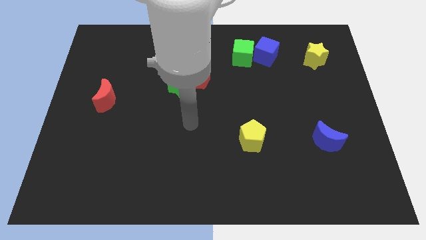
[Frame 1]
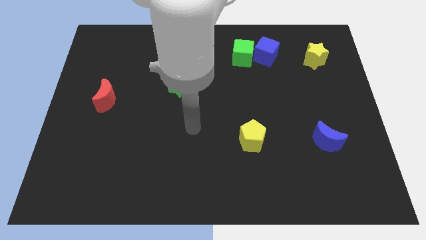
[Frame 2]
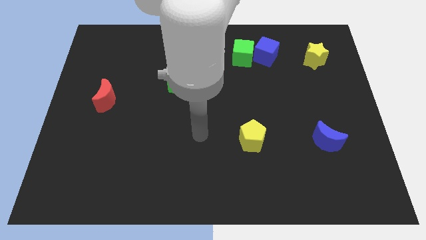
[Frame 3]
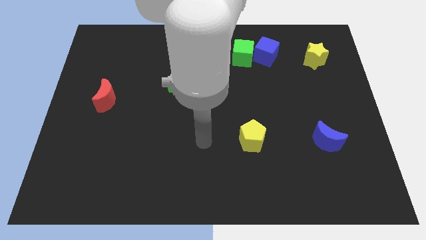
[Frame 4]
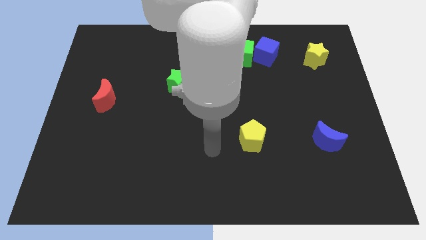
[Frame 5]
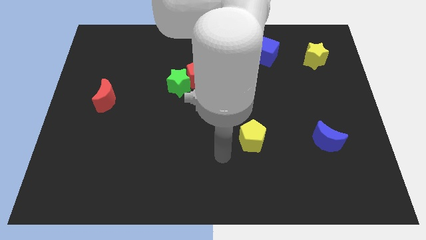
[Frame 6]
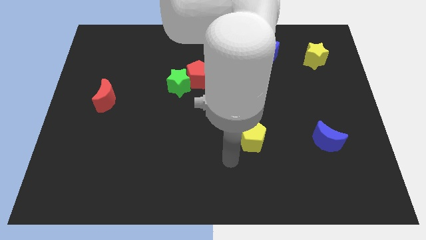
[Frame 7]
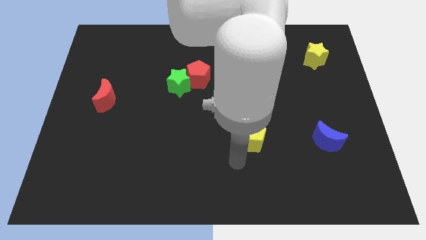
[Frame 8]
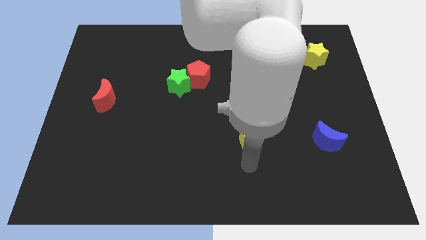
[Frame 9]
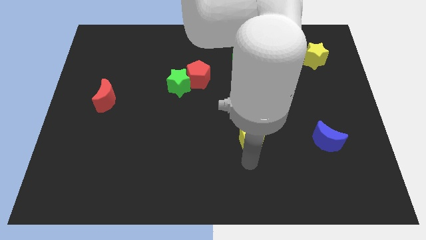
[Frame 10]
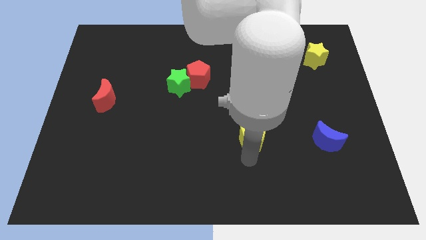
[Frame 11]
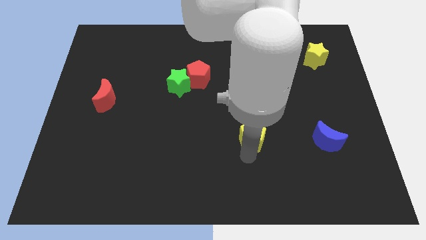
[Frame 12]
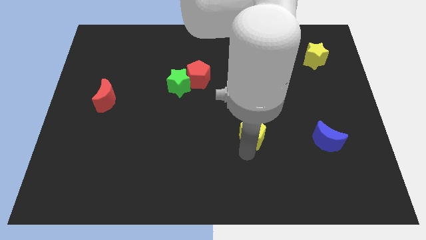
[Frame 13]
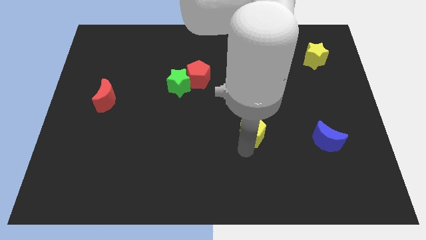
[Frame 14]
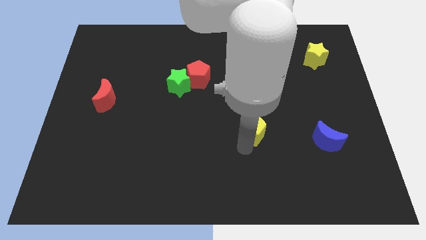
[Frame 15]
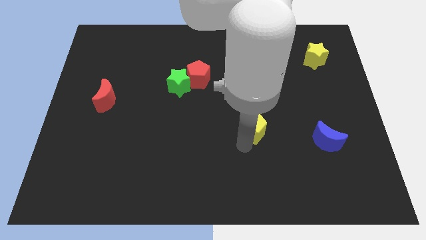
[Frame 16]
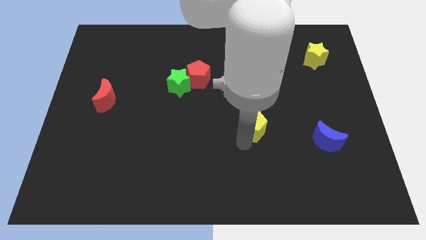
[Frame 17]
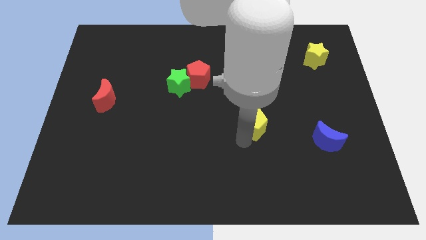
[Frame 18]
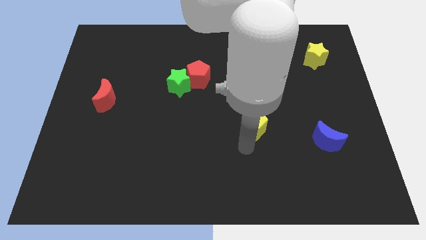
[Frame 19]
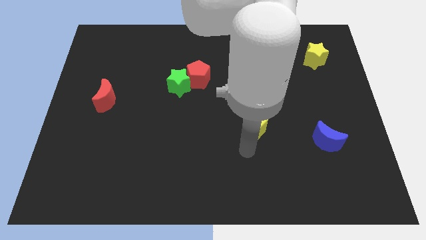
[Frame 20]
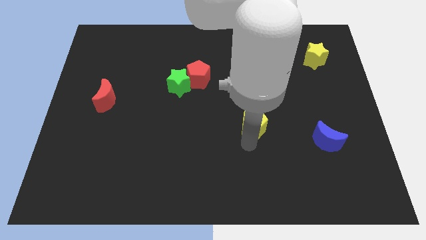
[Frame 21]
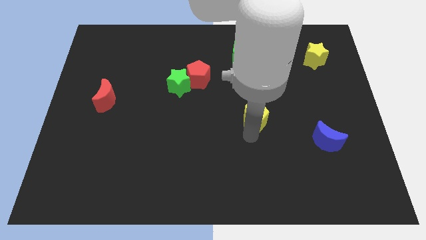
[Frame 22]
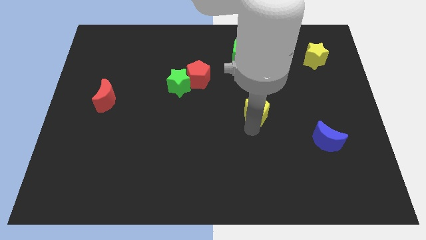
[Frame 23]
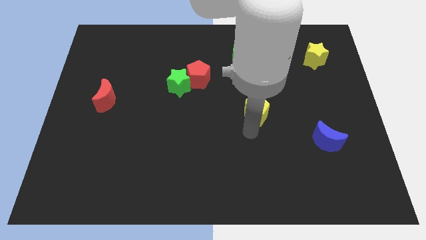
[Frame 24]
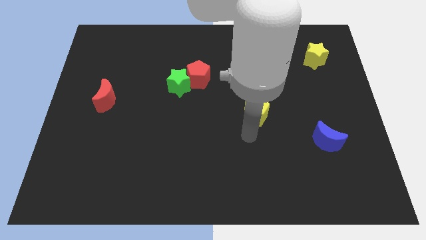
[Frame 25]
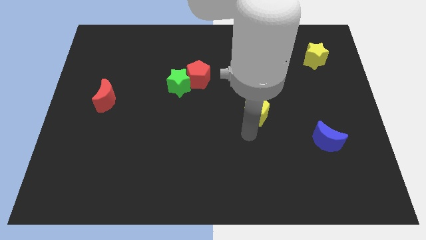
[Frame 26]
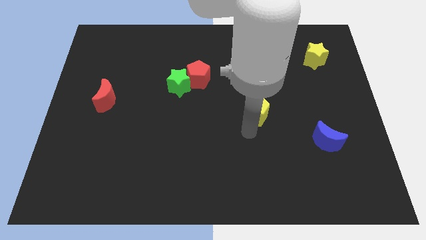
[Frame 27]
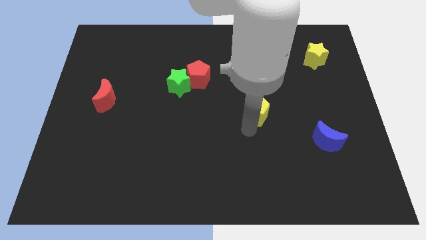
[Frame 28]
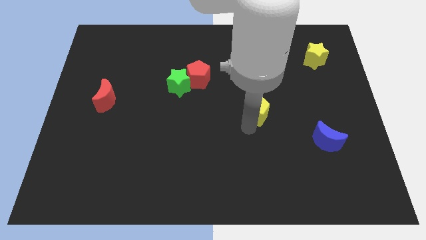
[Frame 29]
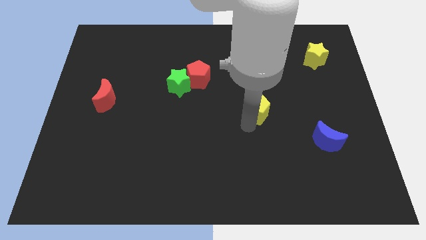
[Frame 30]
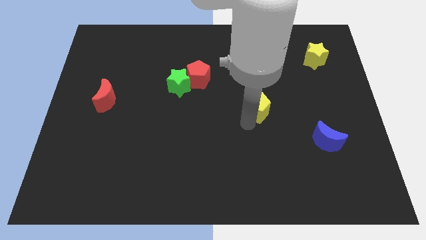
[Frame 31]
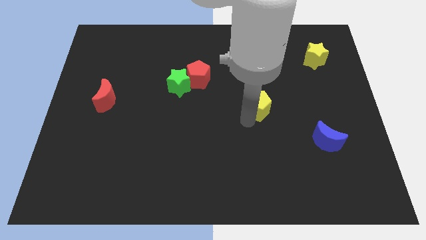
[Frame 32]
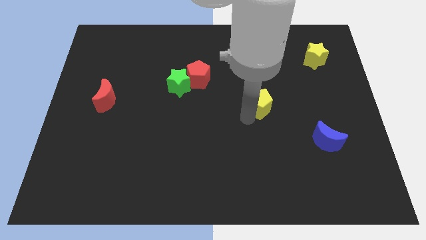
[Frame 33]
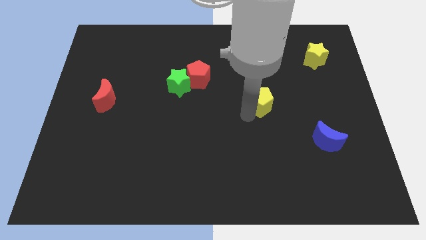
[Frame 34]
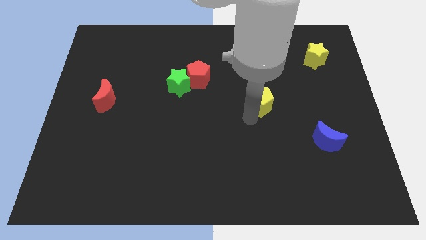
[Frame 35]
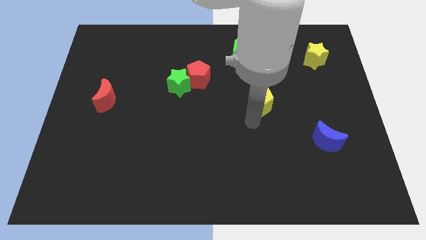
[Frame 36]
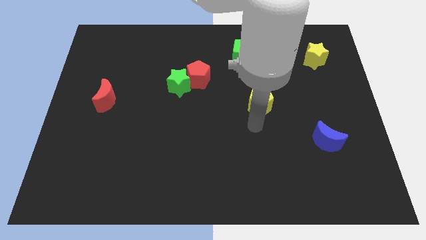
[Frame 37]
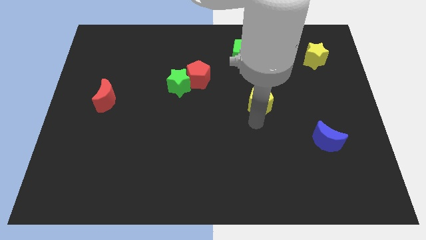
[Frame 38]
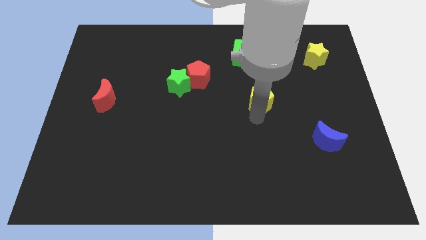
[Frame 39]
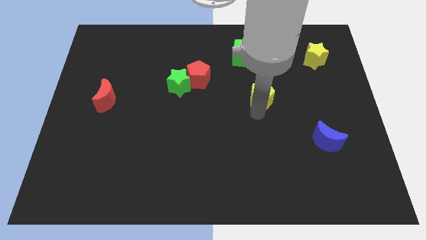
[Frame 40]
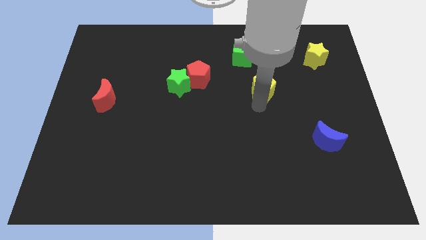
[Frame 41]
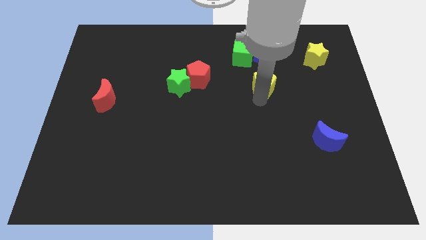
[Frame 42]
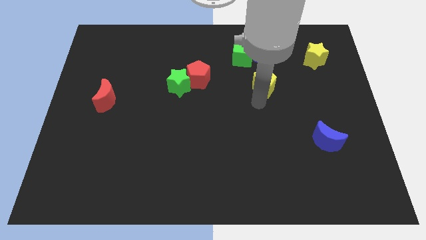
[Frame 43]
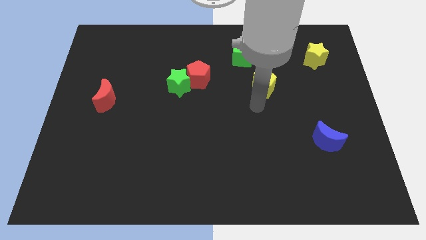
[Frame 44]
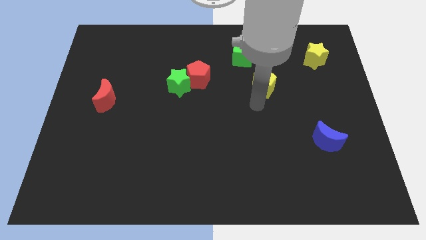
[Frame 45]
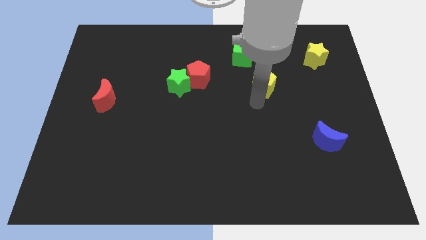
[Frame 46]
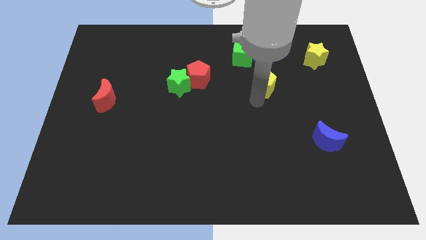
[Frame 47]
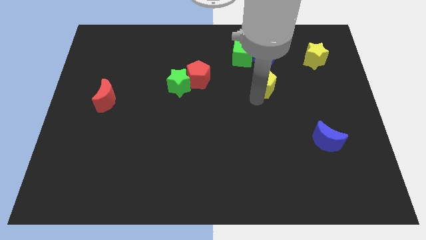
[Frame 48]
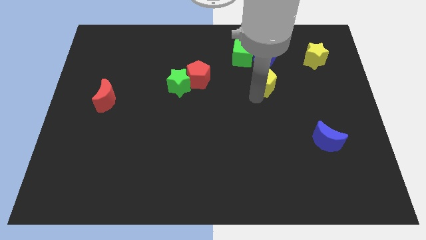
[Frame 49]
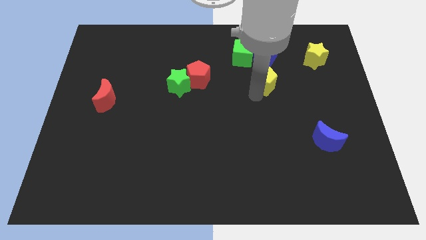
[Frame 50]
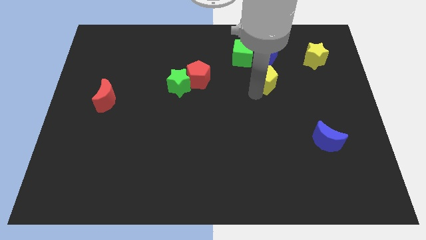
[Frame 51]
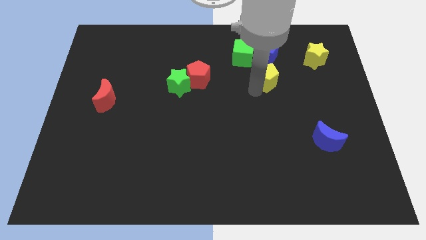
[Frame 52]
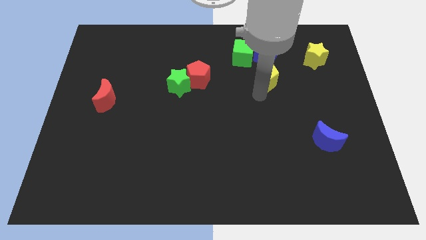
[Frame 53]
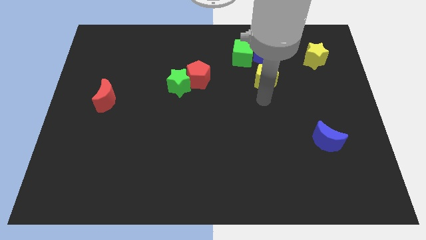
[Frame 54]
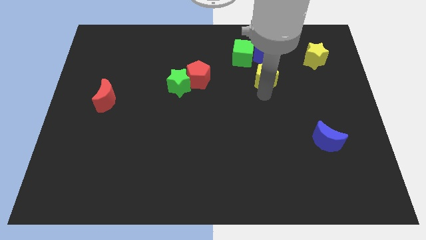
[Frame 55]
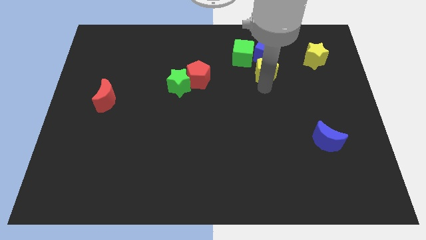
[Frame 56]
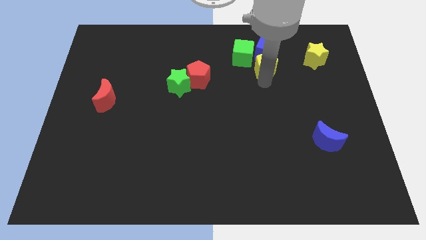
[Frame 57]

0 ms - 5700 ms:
move the yellow pentagon to the blue cube

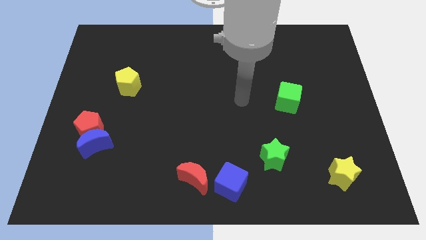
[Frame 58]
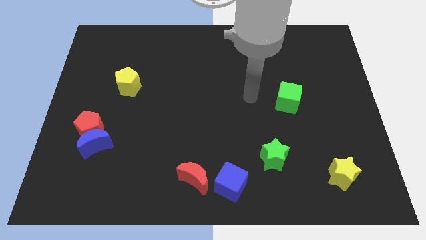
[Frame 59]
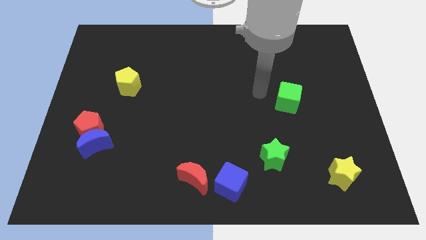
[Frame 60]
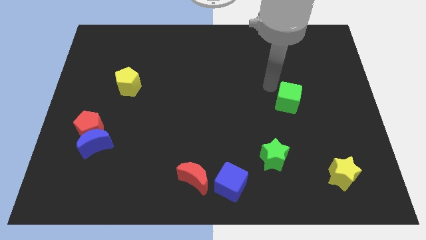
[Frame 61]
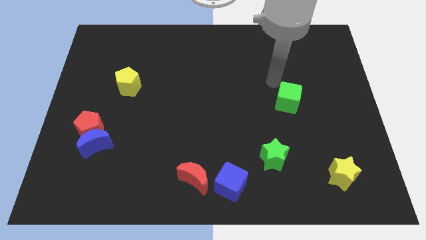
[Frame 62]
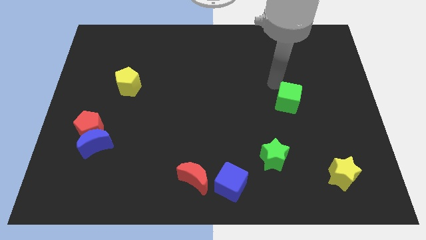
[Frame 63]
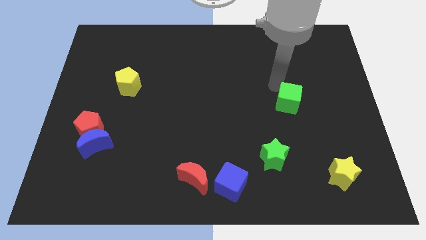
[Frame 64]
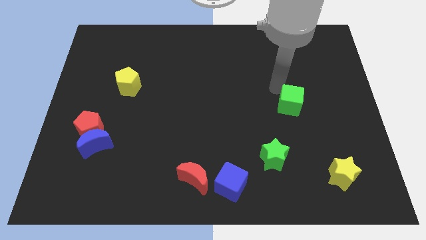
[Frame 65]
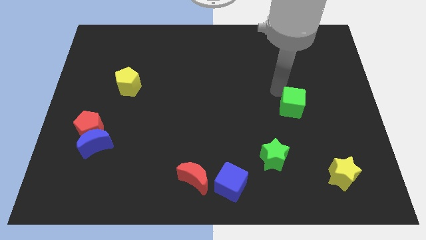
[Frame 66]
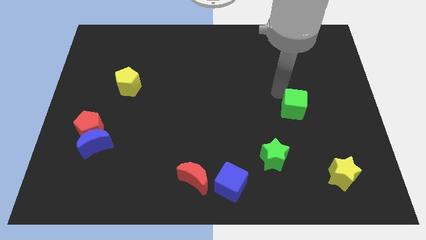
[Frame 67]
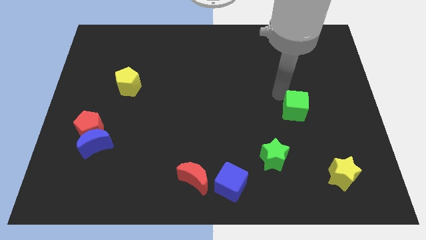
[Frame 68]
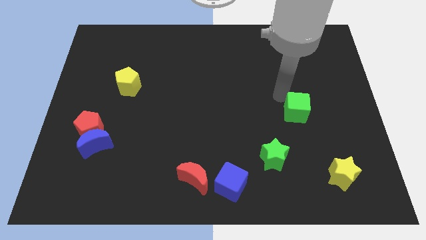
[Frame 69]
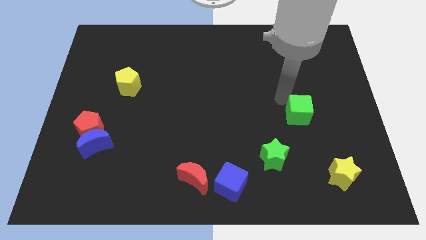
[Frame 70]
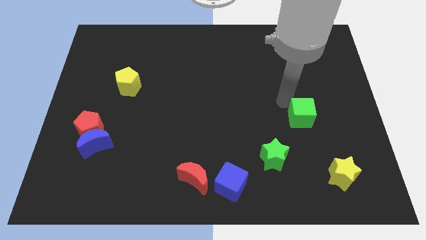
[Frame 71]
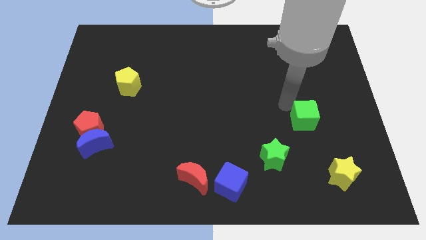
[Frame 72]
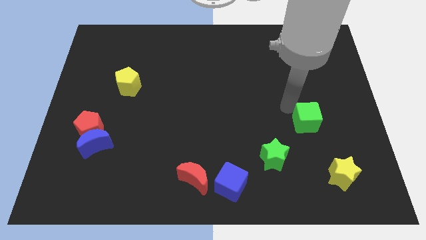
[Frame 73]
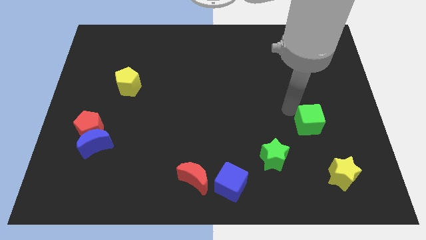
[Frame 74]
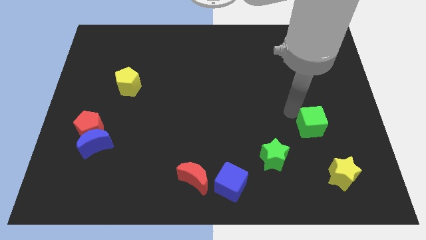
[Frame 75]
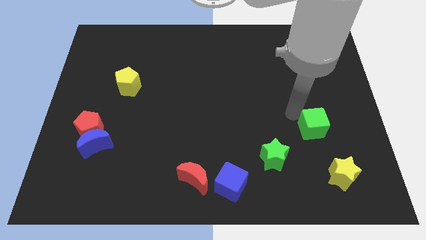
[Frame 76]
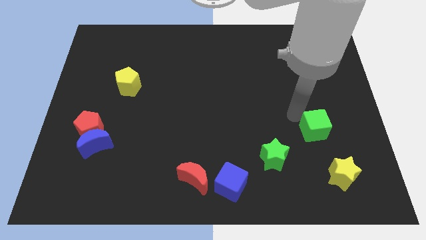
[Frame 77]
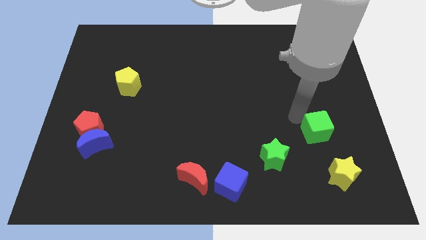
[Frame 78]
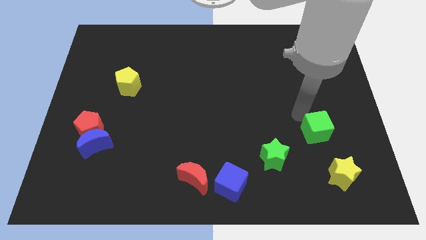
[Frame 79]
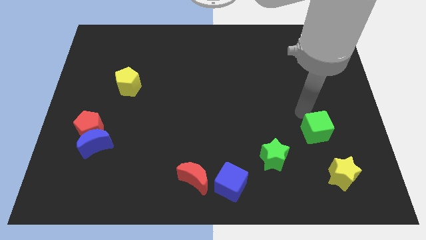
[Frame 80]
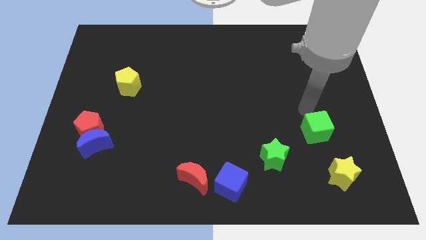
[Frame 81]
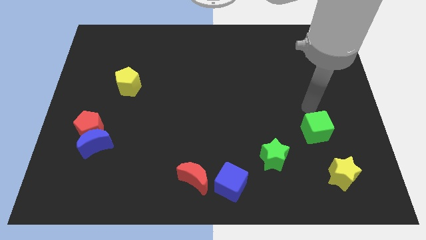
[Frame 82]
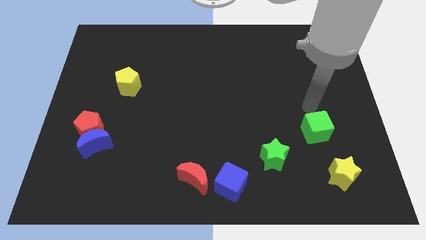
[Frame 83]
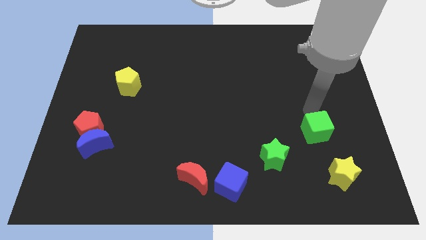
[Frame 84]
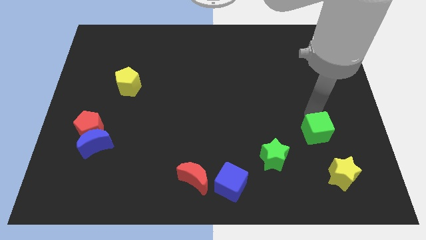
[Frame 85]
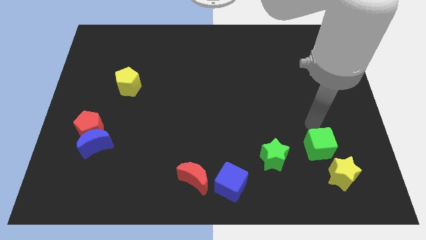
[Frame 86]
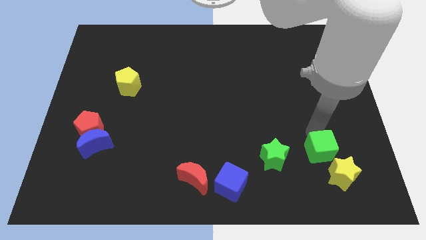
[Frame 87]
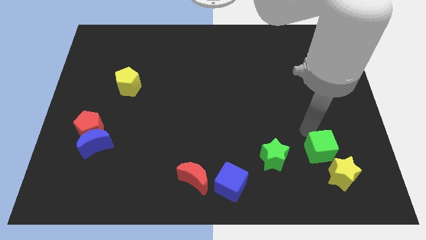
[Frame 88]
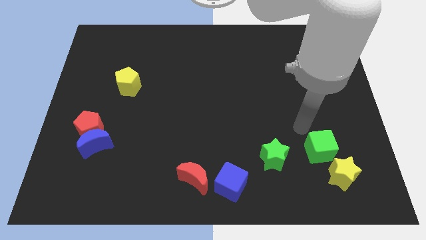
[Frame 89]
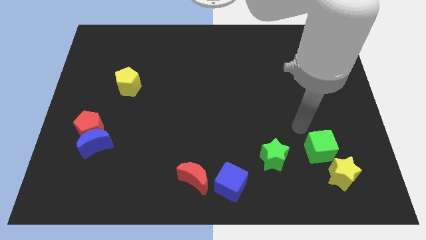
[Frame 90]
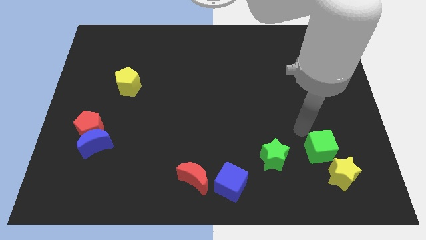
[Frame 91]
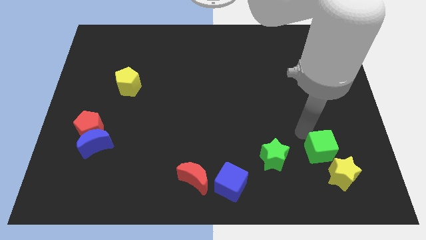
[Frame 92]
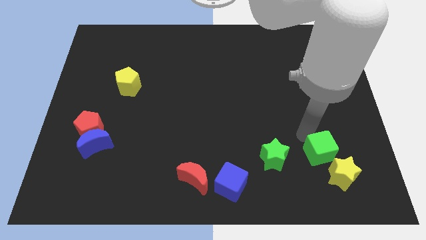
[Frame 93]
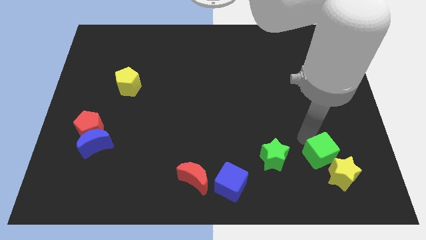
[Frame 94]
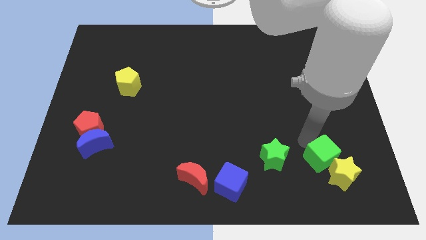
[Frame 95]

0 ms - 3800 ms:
slide the green cube close to the yellow star
